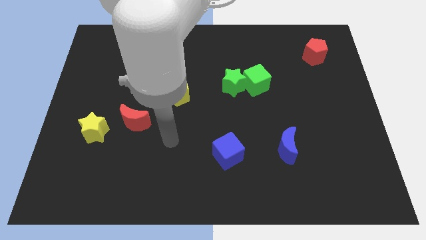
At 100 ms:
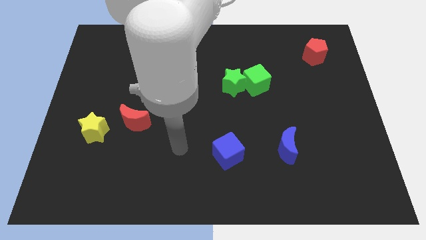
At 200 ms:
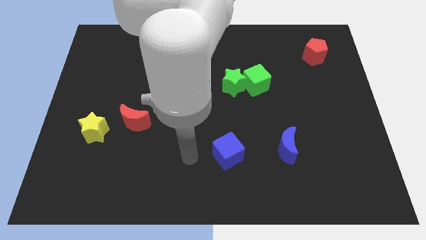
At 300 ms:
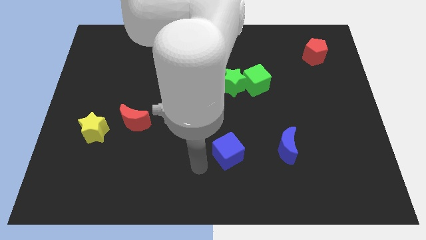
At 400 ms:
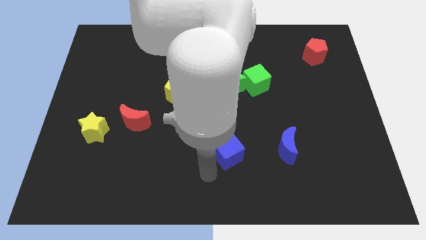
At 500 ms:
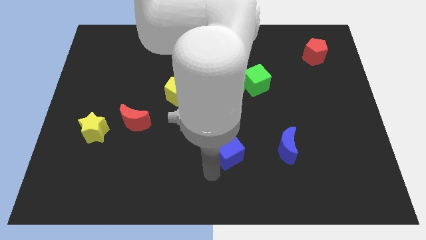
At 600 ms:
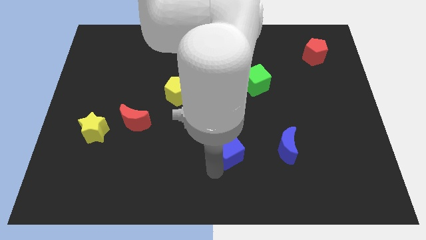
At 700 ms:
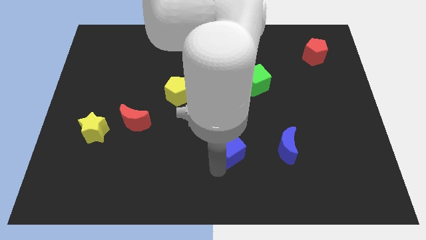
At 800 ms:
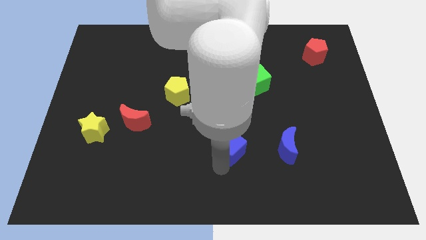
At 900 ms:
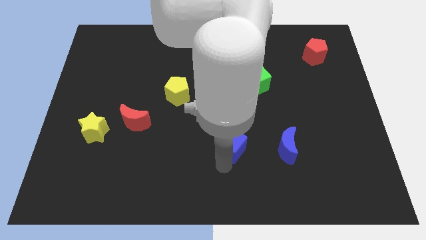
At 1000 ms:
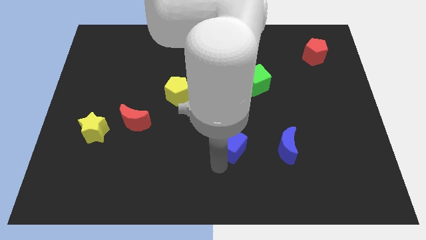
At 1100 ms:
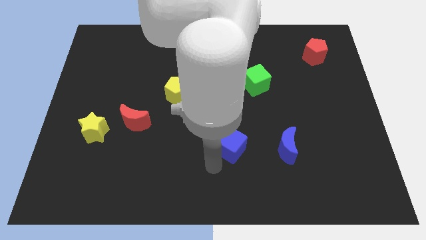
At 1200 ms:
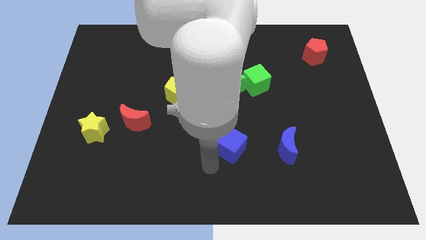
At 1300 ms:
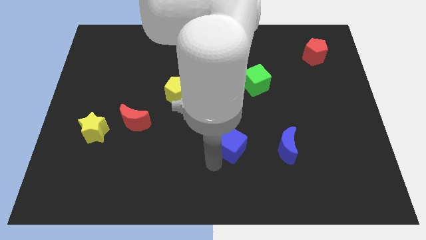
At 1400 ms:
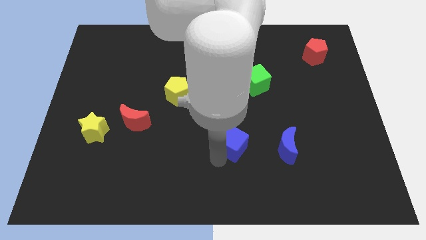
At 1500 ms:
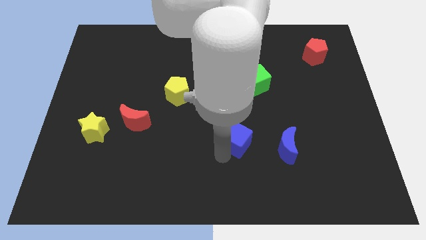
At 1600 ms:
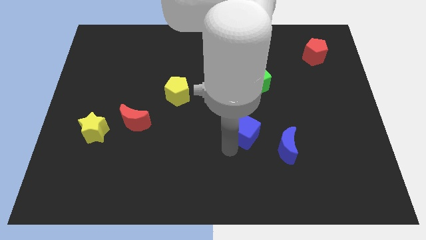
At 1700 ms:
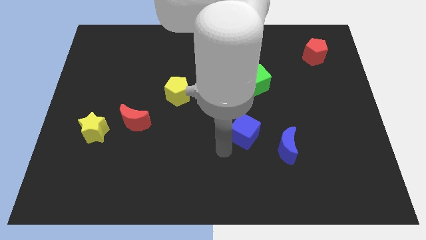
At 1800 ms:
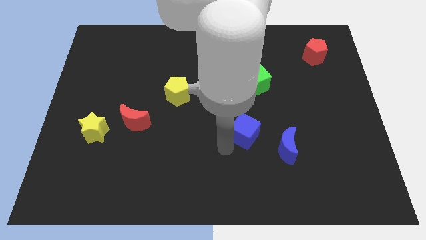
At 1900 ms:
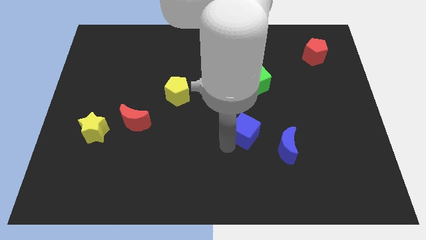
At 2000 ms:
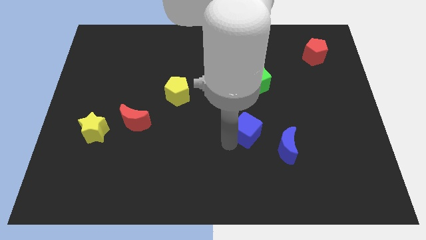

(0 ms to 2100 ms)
slide the blue cube slightly diagonally up and right

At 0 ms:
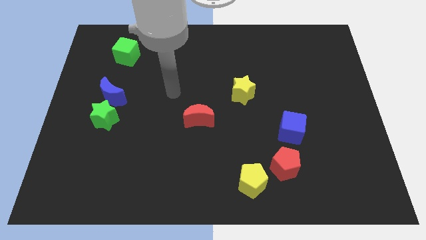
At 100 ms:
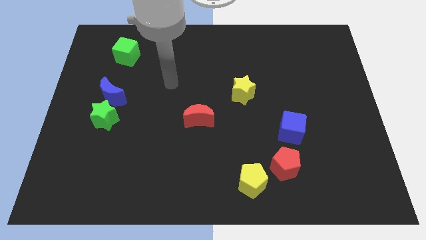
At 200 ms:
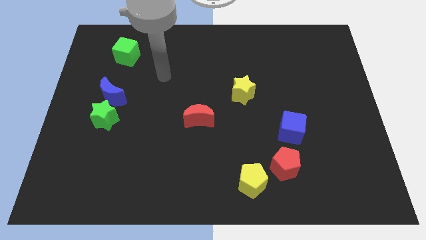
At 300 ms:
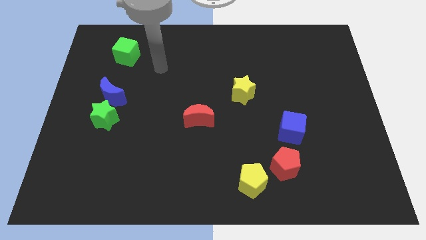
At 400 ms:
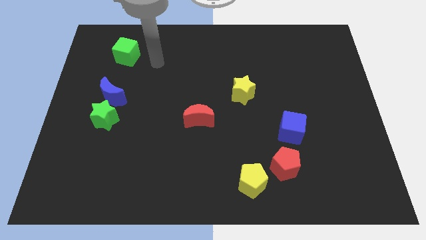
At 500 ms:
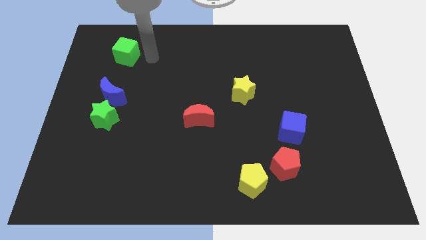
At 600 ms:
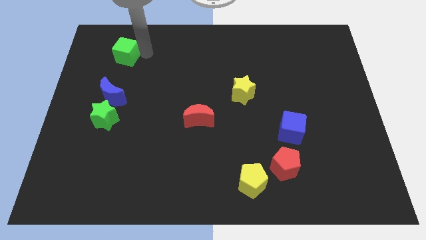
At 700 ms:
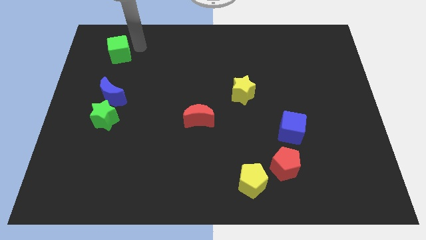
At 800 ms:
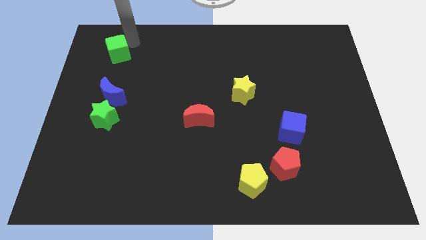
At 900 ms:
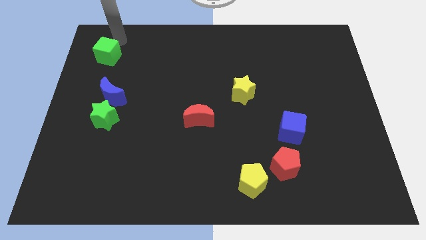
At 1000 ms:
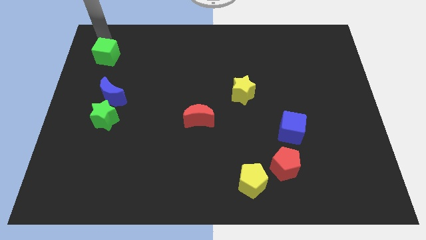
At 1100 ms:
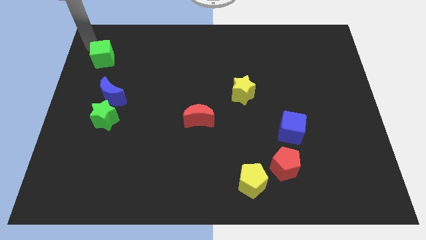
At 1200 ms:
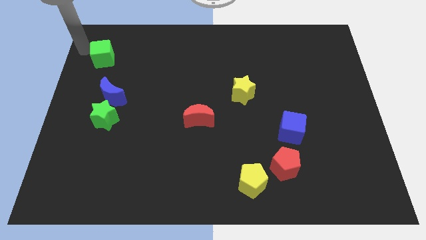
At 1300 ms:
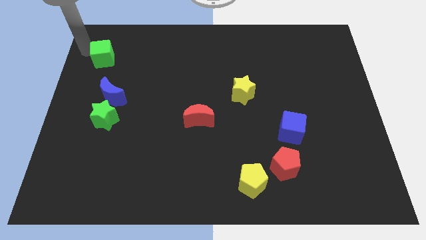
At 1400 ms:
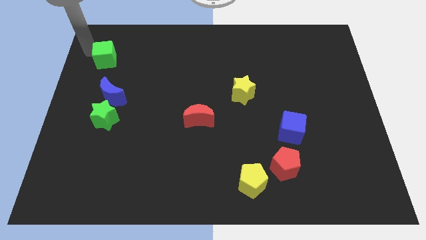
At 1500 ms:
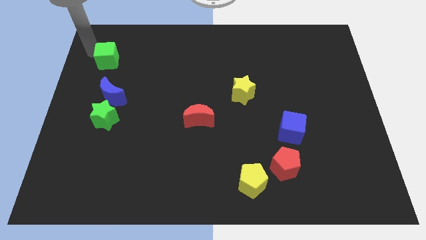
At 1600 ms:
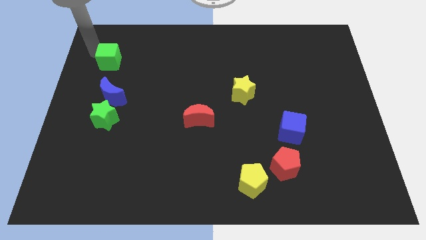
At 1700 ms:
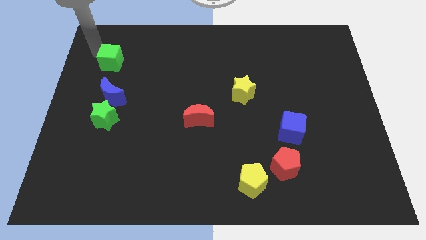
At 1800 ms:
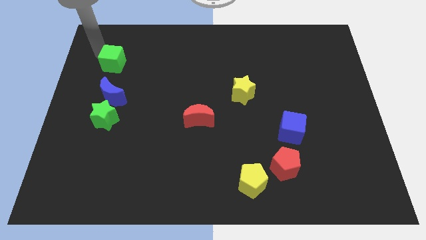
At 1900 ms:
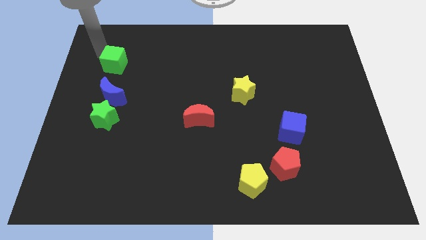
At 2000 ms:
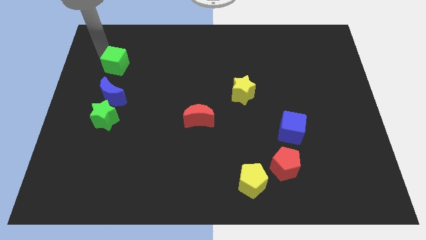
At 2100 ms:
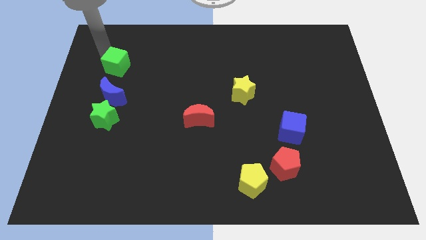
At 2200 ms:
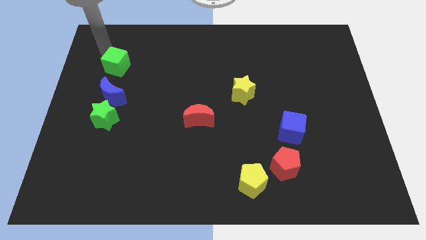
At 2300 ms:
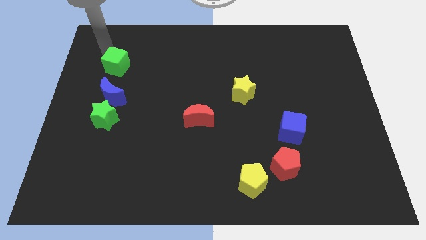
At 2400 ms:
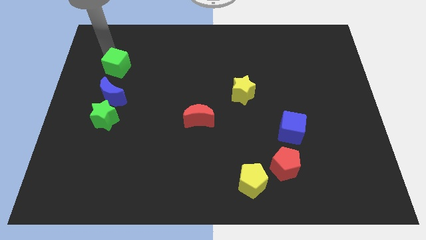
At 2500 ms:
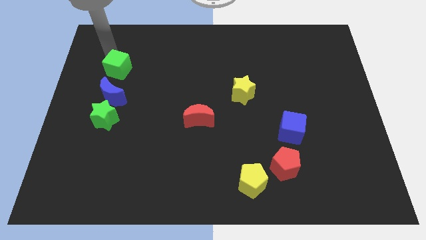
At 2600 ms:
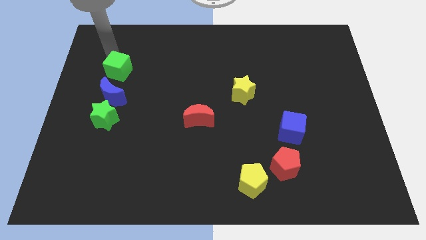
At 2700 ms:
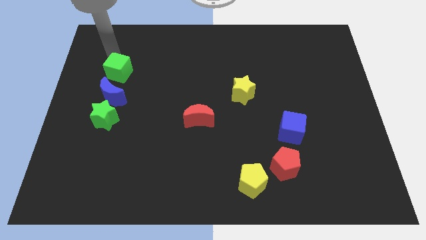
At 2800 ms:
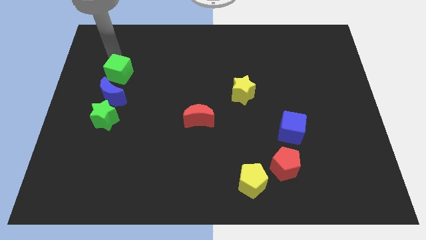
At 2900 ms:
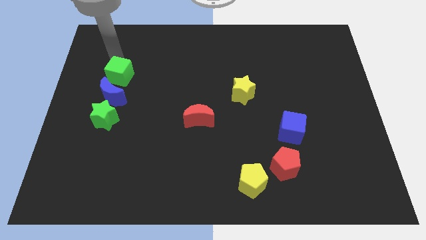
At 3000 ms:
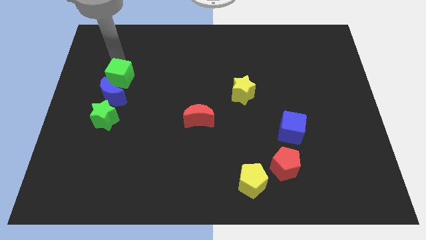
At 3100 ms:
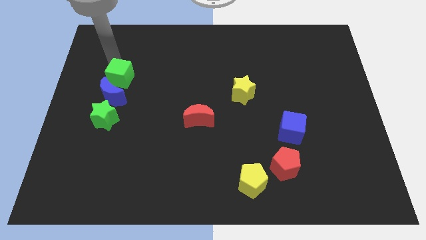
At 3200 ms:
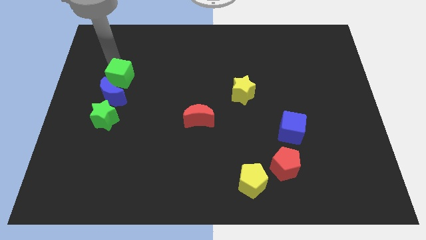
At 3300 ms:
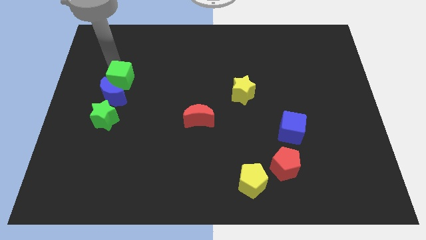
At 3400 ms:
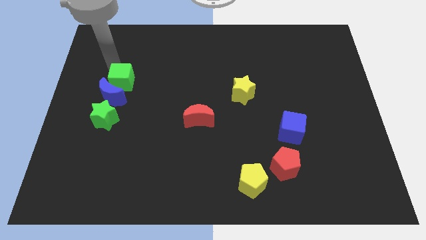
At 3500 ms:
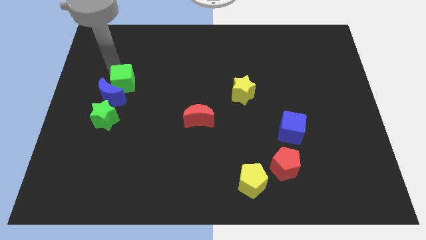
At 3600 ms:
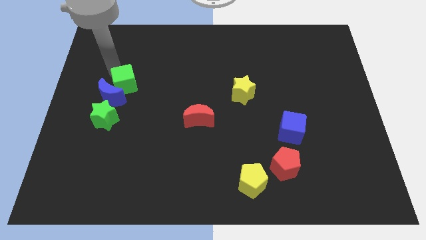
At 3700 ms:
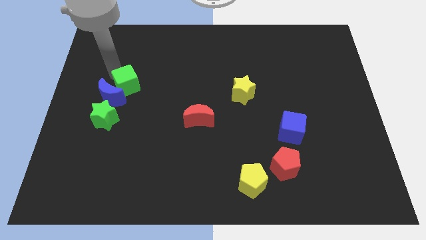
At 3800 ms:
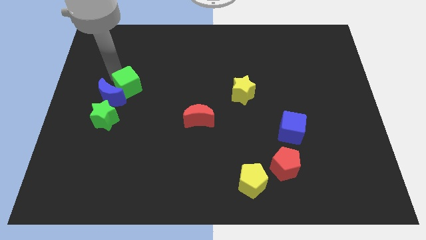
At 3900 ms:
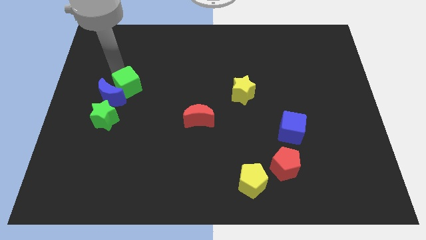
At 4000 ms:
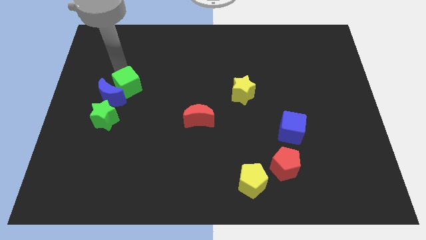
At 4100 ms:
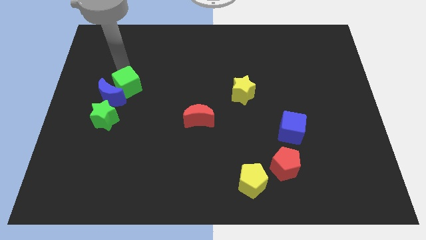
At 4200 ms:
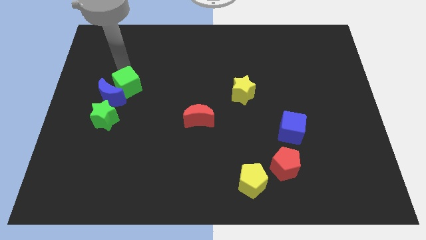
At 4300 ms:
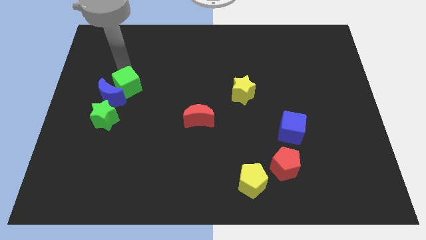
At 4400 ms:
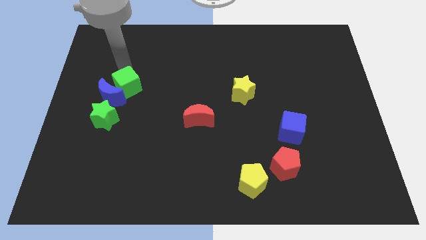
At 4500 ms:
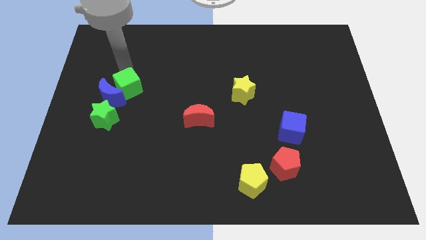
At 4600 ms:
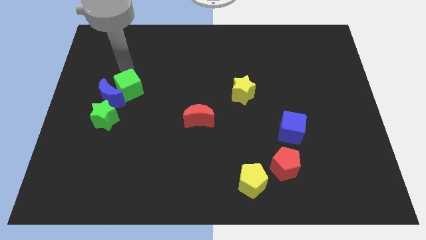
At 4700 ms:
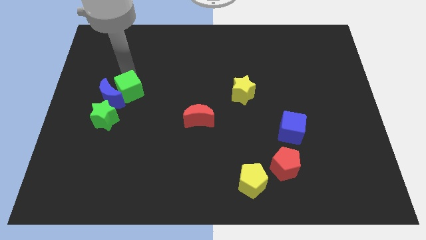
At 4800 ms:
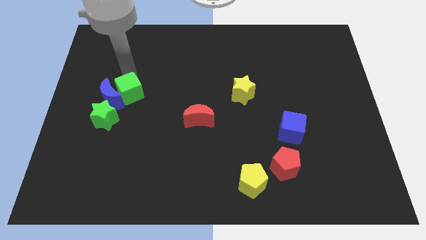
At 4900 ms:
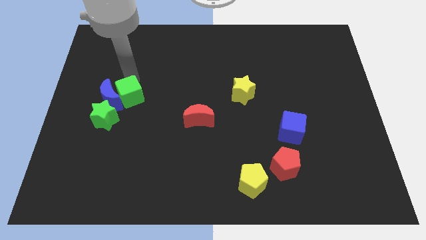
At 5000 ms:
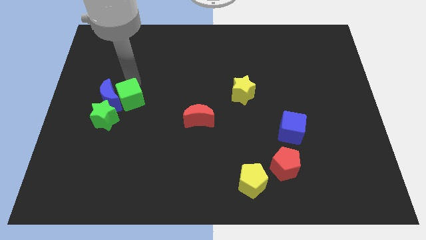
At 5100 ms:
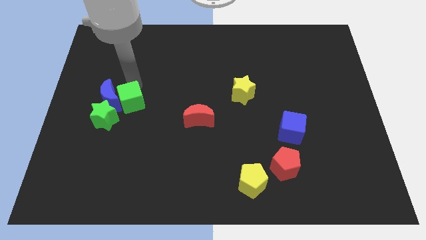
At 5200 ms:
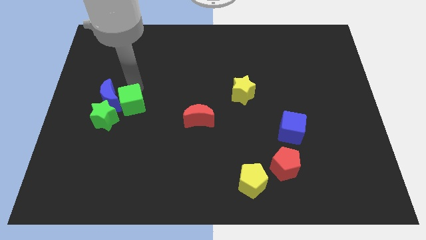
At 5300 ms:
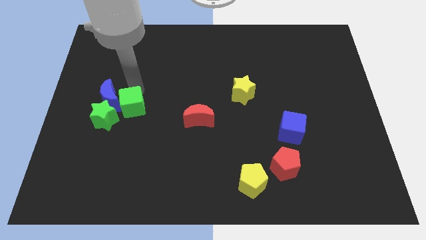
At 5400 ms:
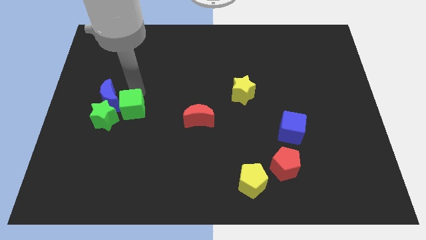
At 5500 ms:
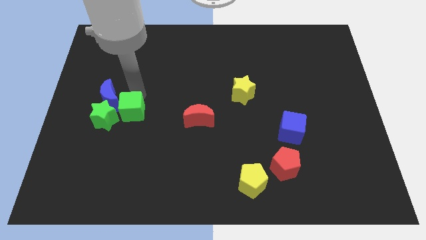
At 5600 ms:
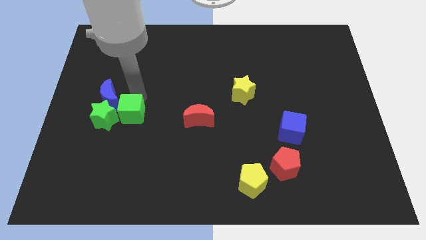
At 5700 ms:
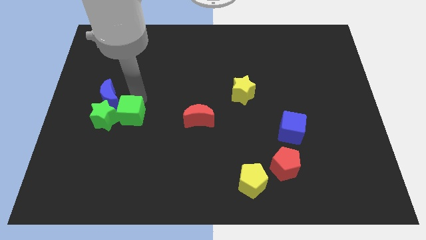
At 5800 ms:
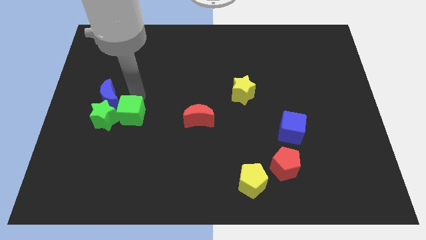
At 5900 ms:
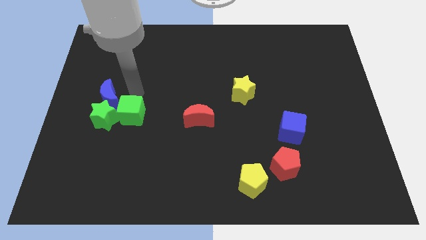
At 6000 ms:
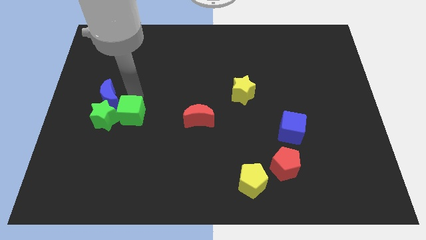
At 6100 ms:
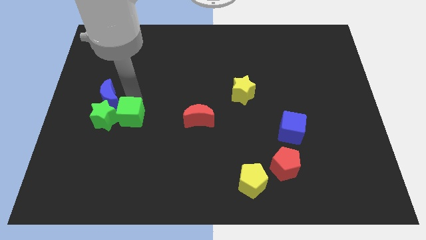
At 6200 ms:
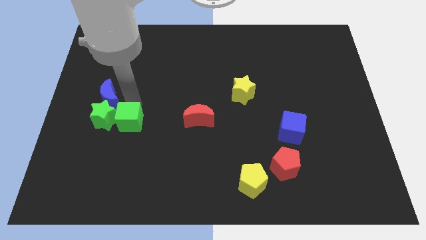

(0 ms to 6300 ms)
slide the green cube downwards
